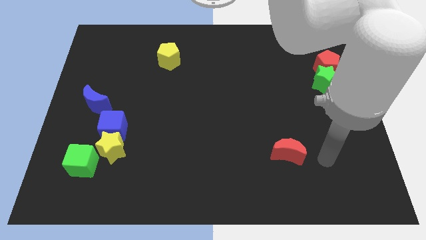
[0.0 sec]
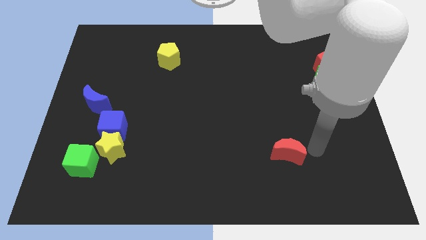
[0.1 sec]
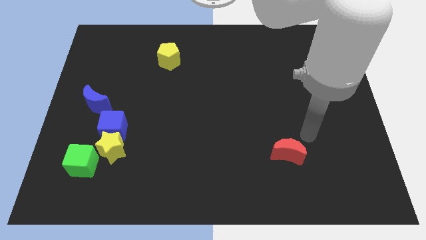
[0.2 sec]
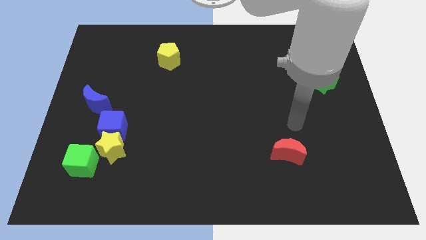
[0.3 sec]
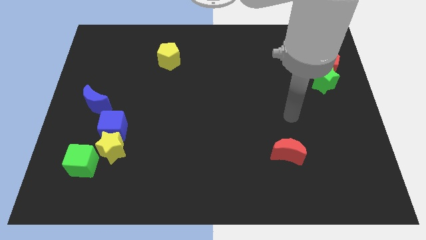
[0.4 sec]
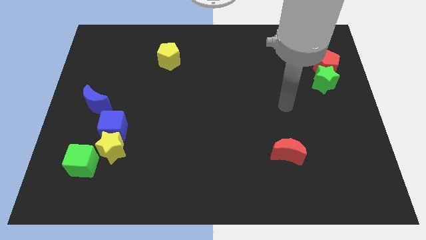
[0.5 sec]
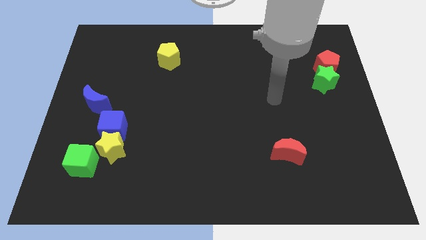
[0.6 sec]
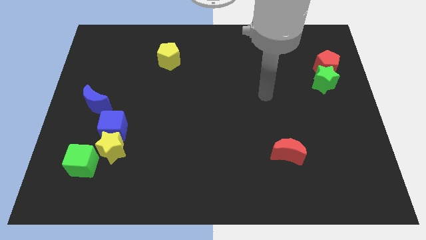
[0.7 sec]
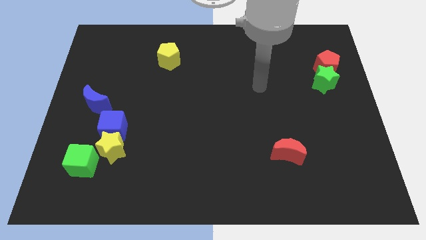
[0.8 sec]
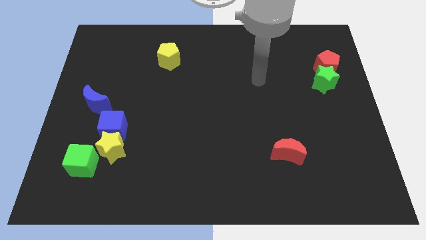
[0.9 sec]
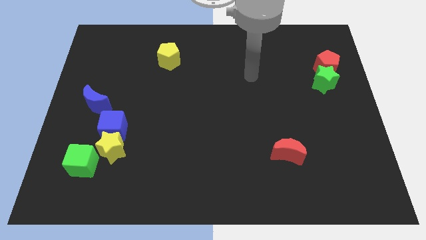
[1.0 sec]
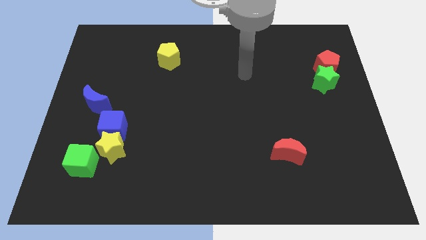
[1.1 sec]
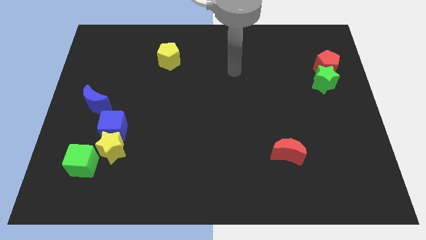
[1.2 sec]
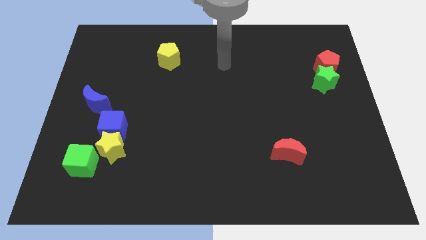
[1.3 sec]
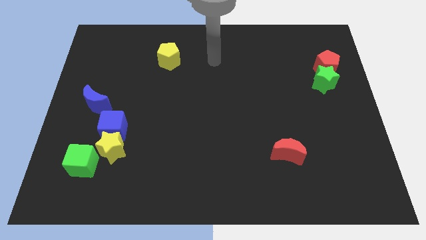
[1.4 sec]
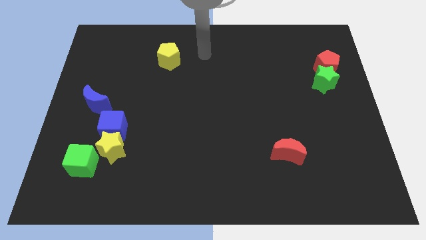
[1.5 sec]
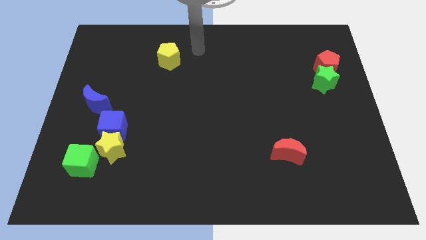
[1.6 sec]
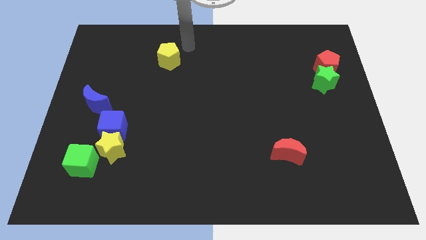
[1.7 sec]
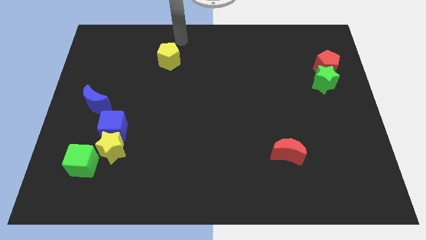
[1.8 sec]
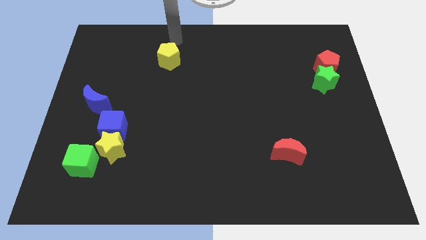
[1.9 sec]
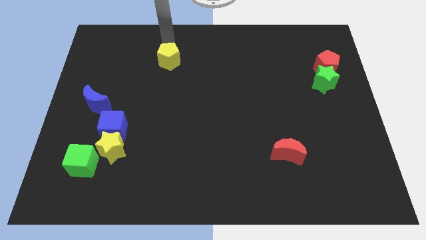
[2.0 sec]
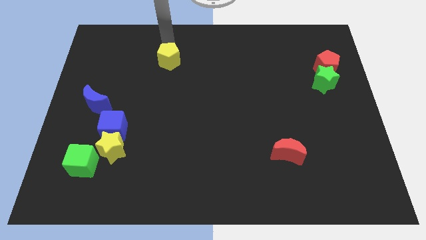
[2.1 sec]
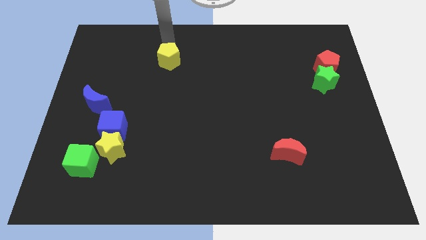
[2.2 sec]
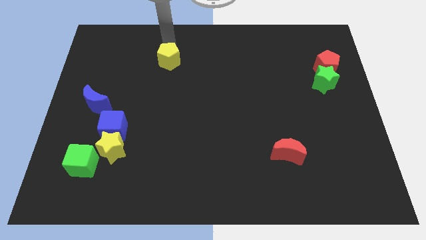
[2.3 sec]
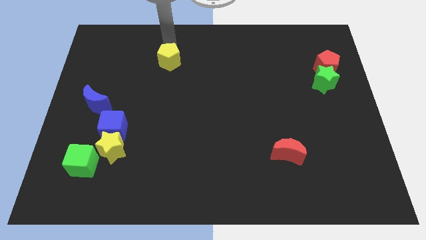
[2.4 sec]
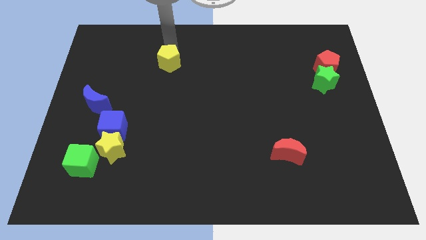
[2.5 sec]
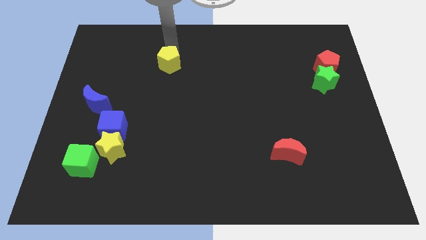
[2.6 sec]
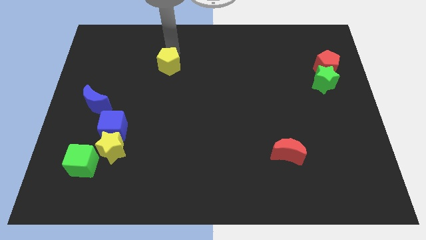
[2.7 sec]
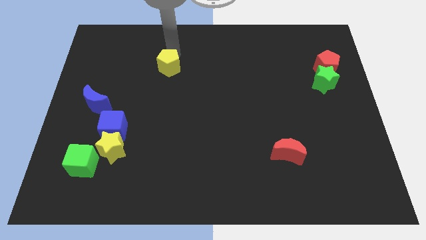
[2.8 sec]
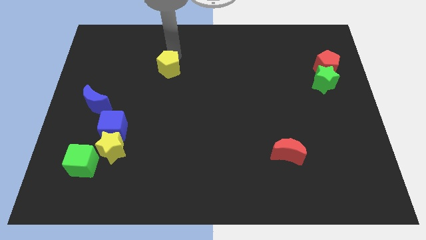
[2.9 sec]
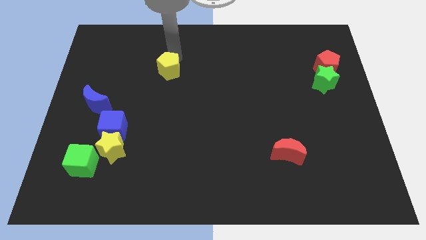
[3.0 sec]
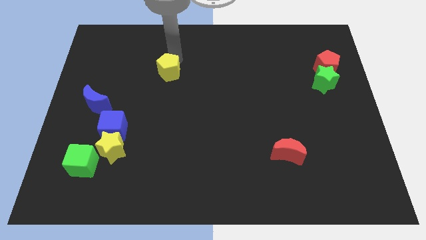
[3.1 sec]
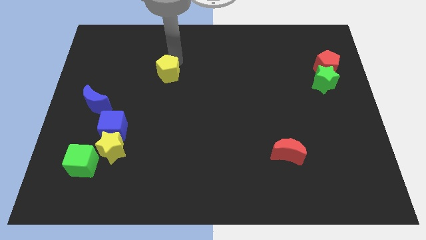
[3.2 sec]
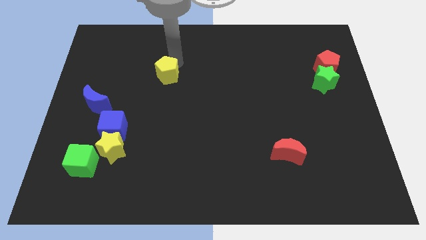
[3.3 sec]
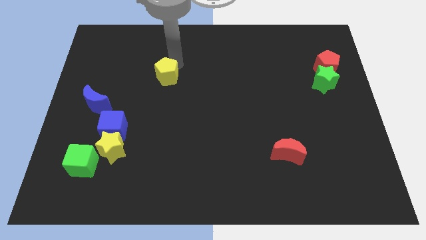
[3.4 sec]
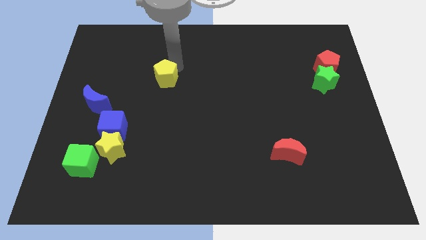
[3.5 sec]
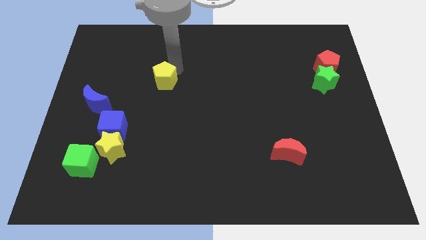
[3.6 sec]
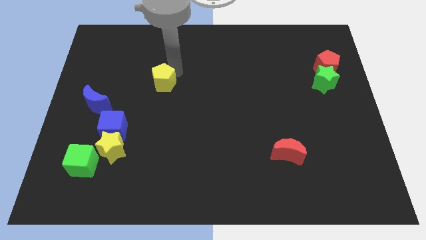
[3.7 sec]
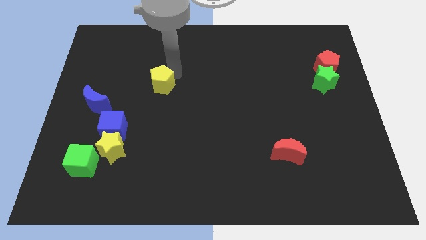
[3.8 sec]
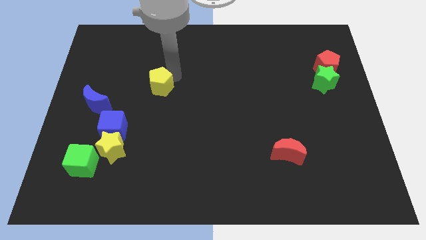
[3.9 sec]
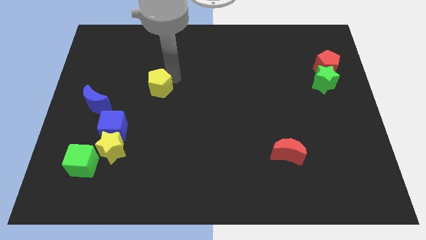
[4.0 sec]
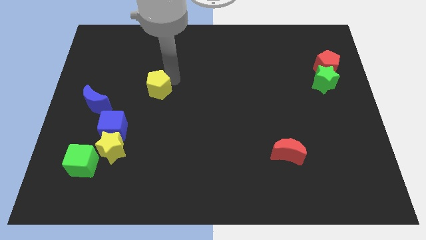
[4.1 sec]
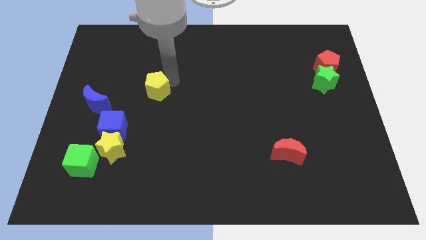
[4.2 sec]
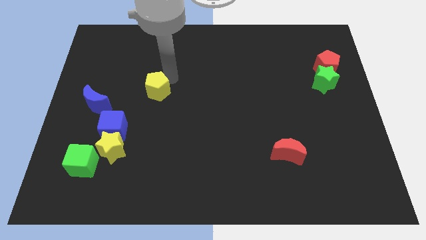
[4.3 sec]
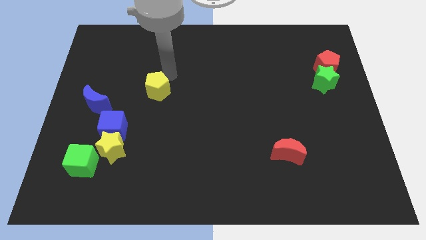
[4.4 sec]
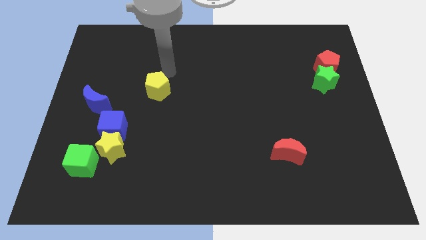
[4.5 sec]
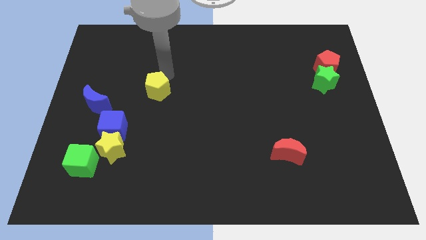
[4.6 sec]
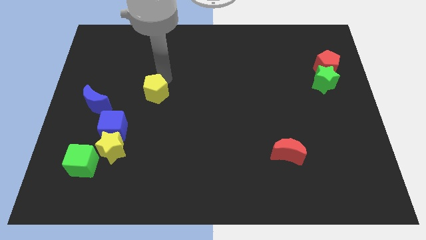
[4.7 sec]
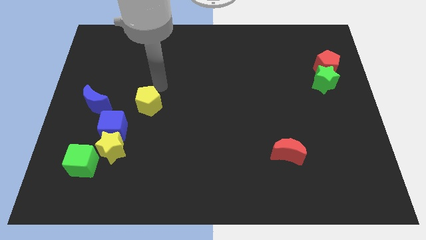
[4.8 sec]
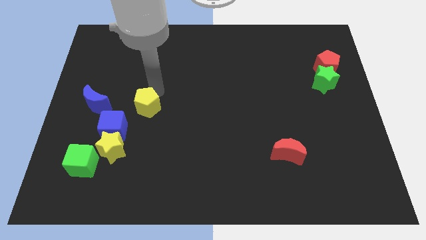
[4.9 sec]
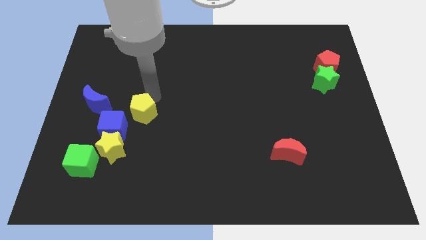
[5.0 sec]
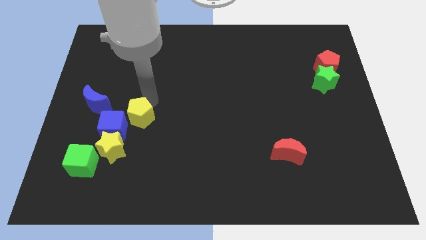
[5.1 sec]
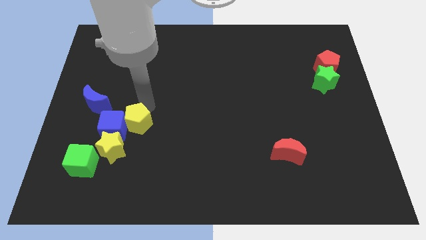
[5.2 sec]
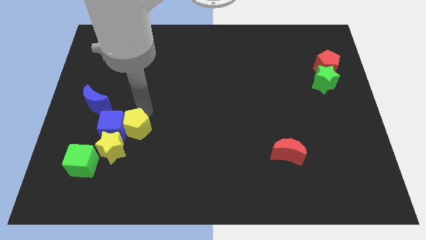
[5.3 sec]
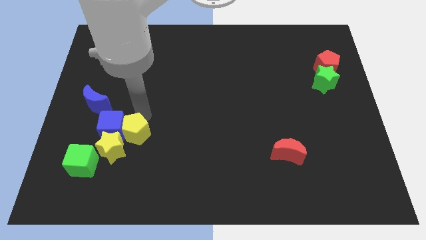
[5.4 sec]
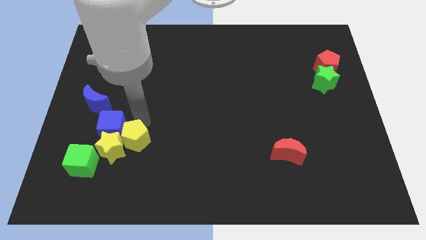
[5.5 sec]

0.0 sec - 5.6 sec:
slide the yellow pentagon next to the yellow star

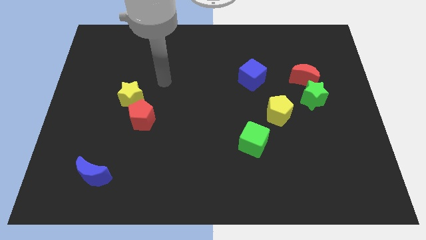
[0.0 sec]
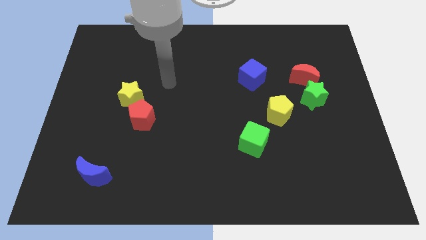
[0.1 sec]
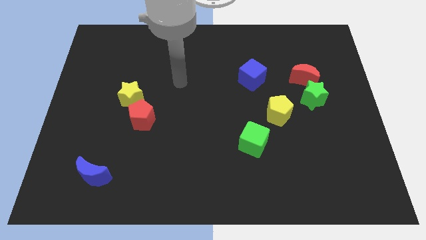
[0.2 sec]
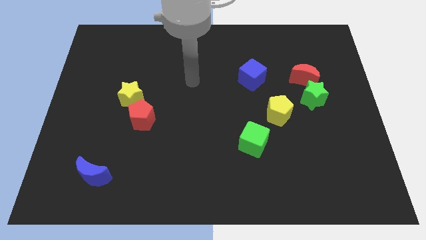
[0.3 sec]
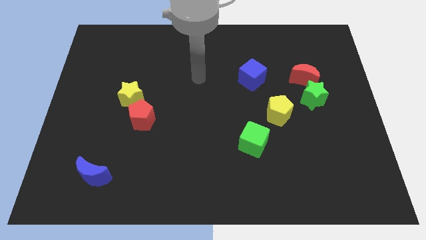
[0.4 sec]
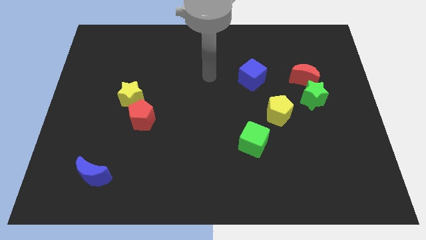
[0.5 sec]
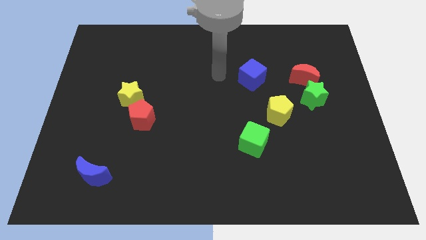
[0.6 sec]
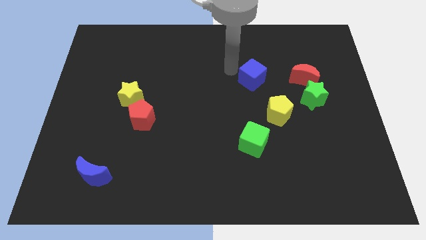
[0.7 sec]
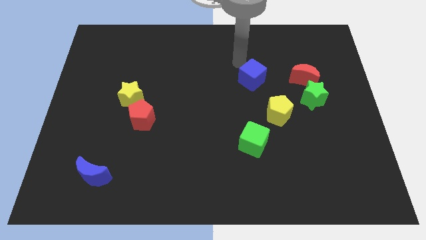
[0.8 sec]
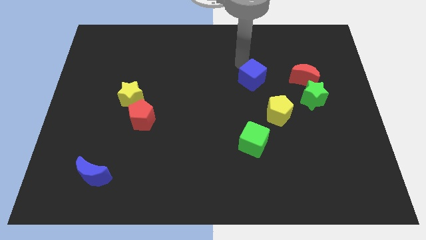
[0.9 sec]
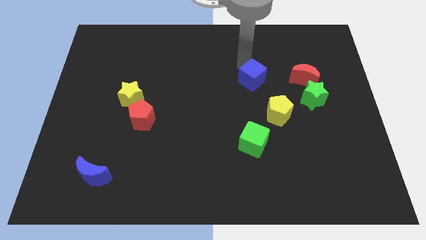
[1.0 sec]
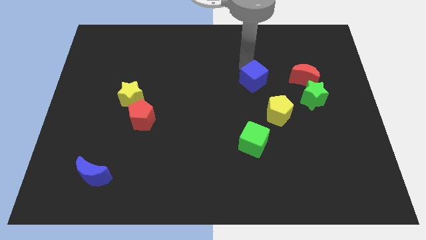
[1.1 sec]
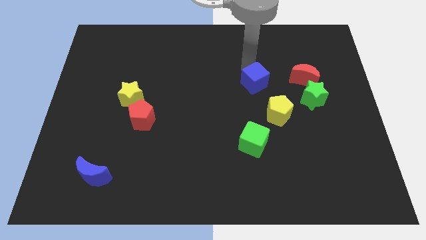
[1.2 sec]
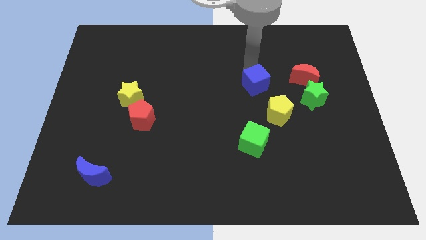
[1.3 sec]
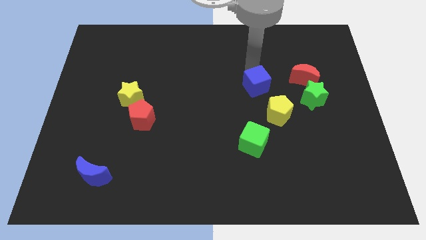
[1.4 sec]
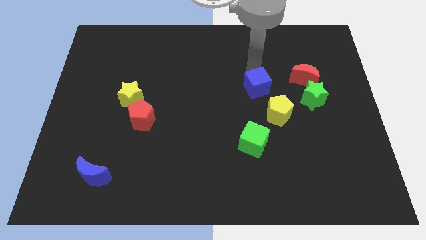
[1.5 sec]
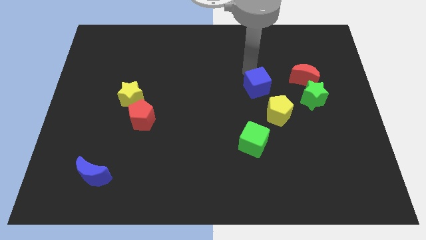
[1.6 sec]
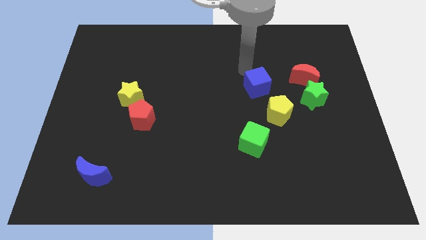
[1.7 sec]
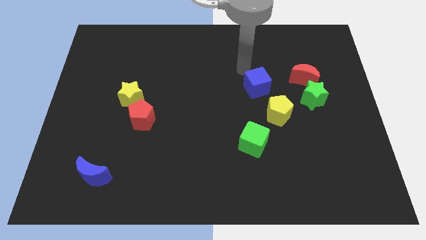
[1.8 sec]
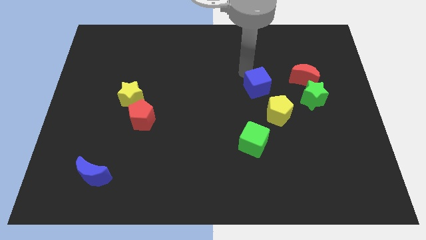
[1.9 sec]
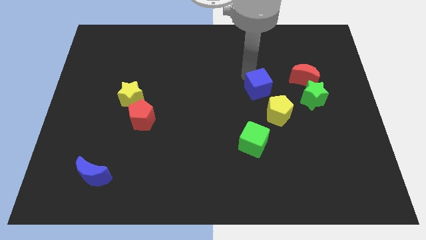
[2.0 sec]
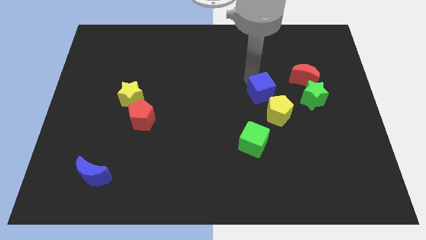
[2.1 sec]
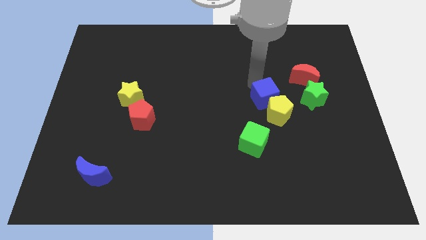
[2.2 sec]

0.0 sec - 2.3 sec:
push the blue cube next to the yellow pentagon
